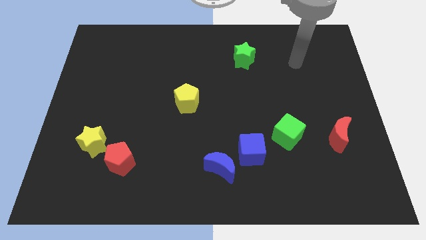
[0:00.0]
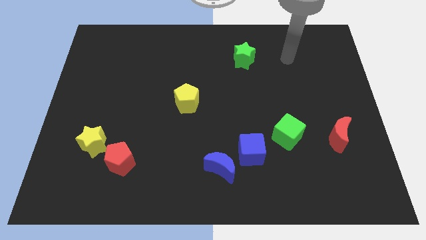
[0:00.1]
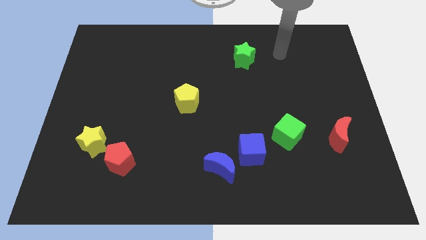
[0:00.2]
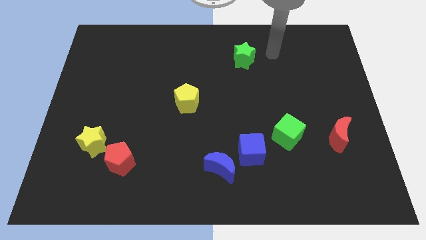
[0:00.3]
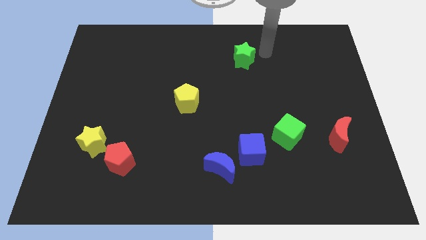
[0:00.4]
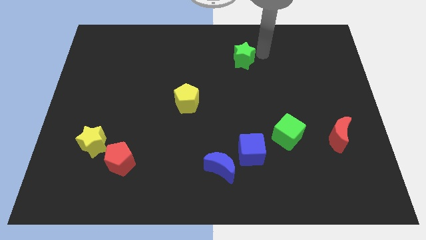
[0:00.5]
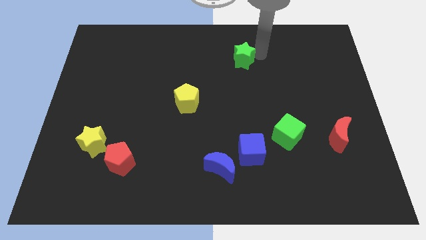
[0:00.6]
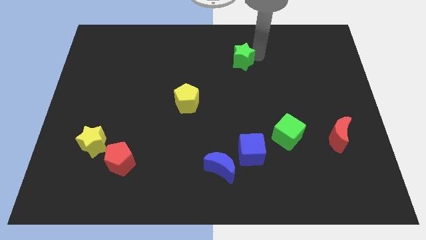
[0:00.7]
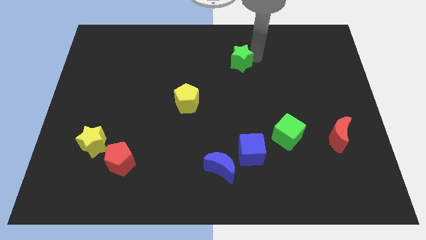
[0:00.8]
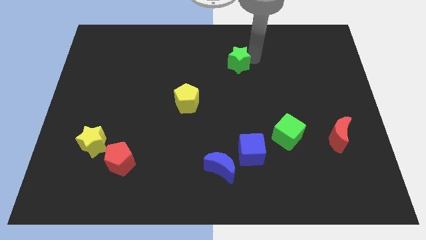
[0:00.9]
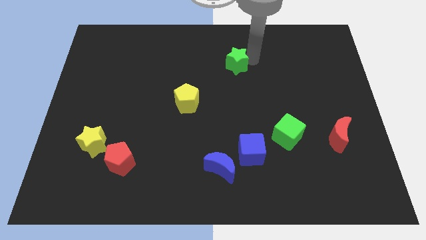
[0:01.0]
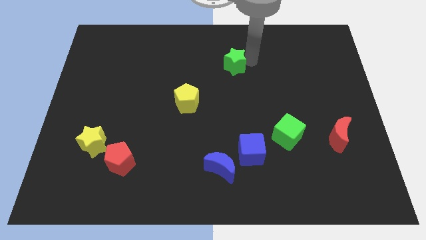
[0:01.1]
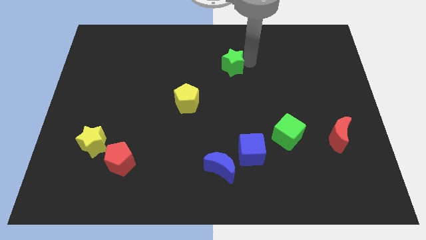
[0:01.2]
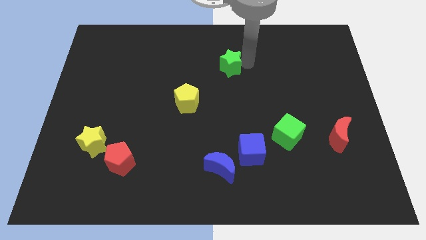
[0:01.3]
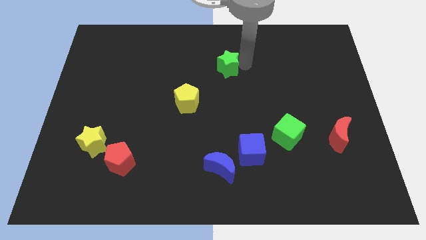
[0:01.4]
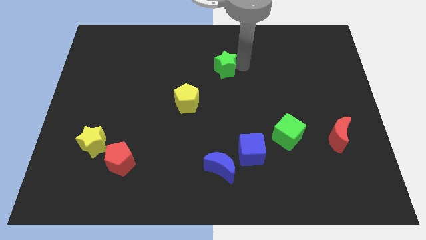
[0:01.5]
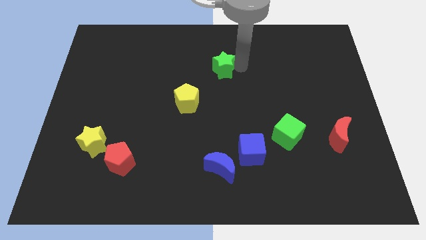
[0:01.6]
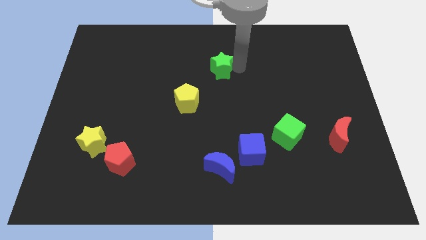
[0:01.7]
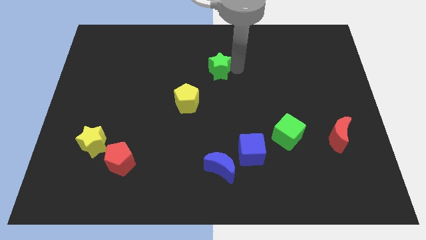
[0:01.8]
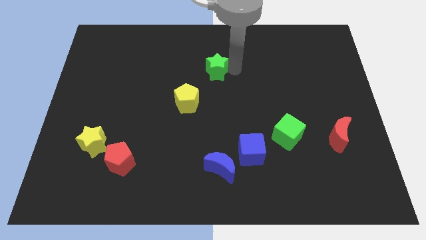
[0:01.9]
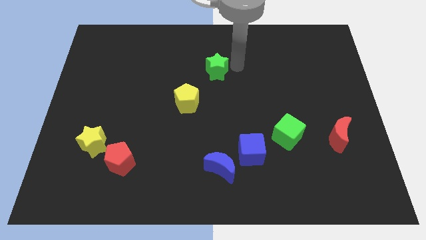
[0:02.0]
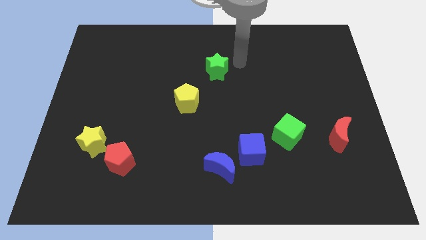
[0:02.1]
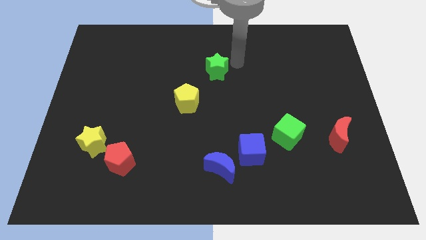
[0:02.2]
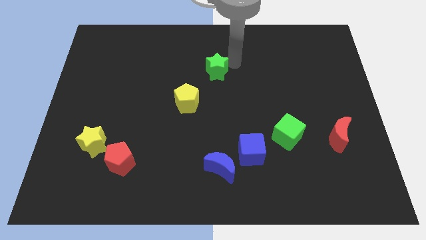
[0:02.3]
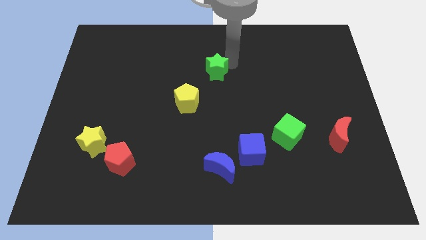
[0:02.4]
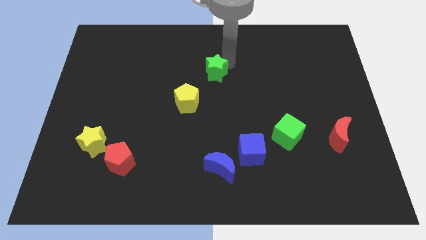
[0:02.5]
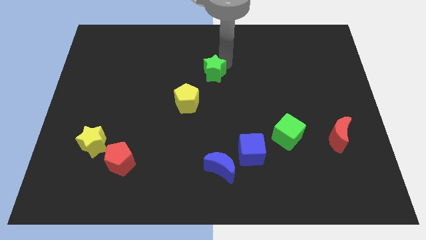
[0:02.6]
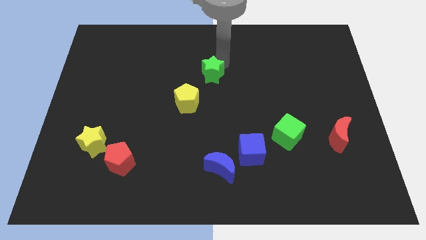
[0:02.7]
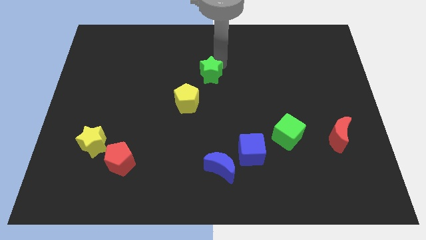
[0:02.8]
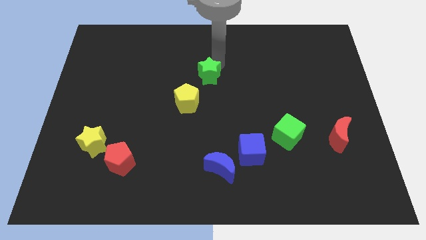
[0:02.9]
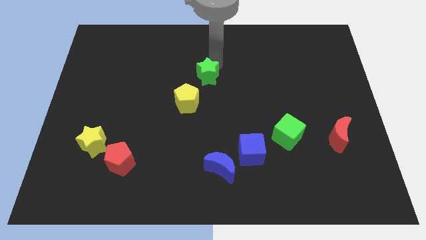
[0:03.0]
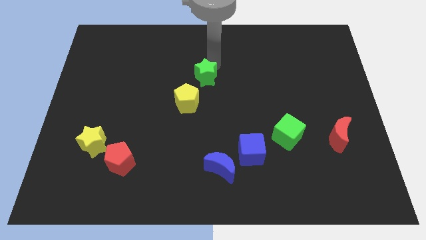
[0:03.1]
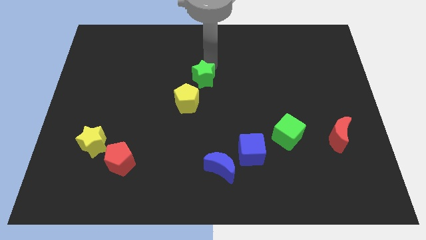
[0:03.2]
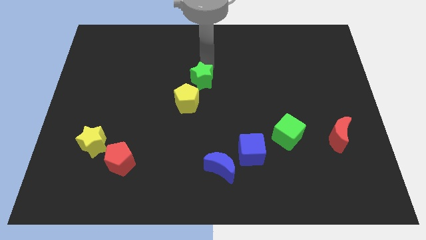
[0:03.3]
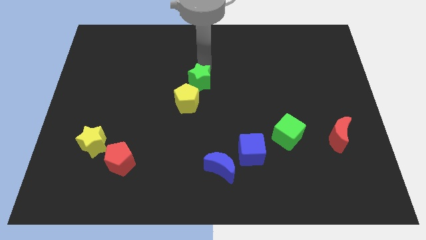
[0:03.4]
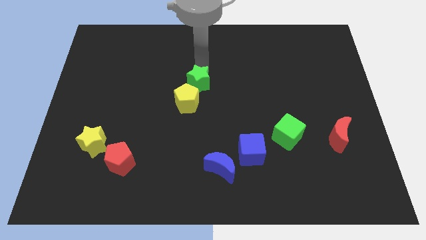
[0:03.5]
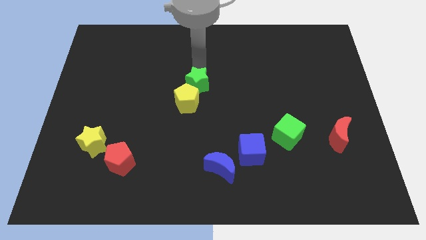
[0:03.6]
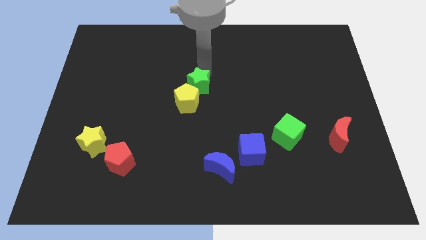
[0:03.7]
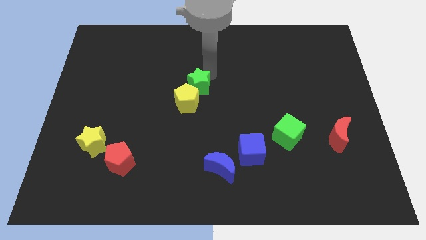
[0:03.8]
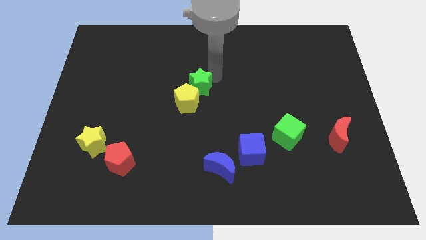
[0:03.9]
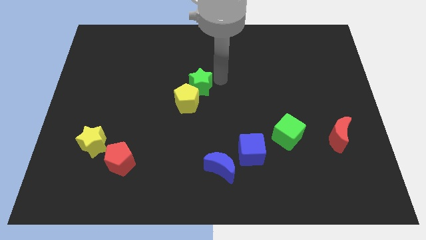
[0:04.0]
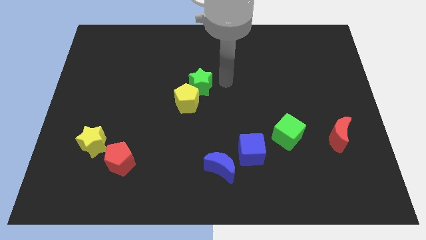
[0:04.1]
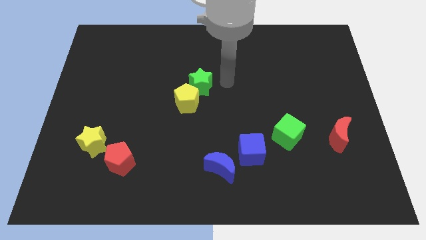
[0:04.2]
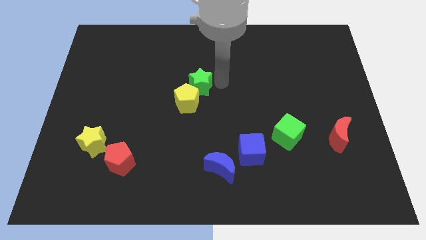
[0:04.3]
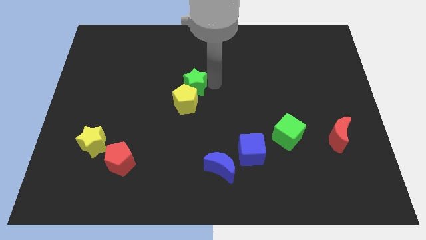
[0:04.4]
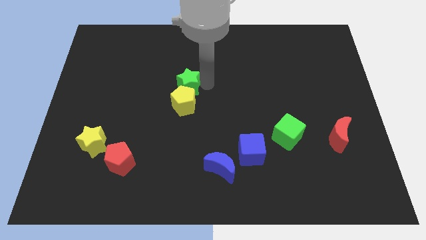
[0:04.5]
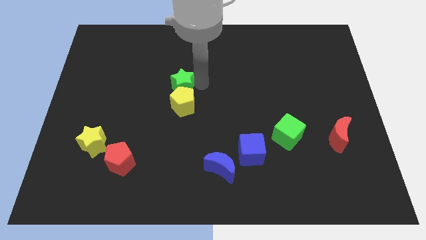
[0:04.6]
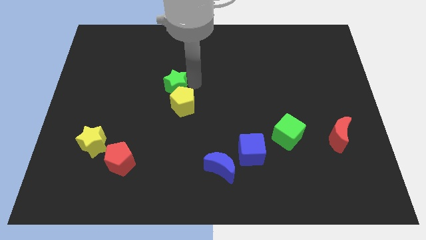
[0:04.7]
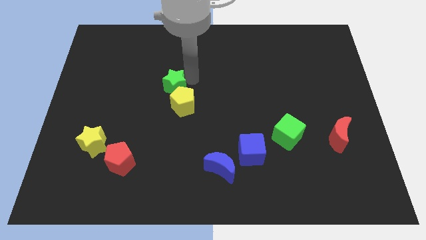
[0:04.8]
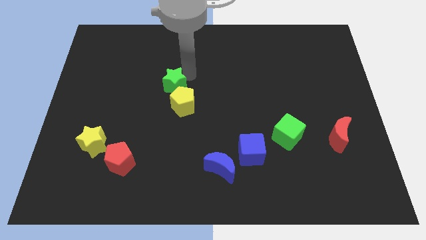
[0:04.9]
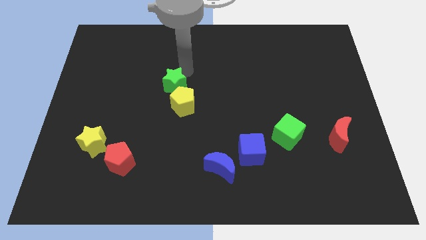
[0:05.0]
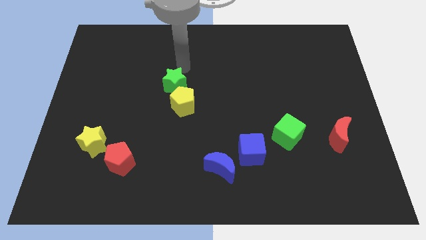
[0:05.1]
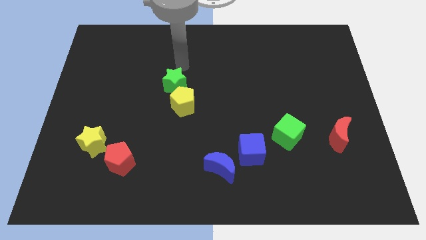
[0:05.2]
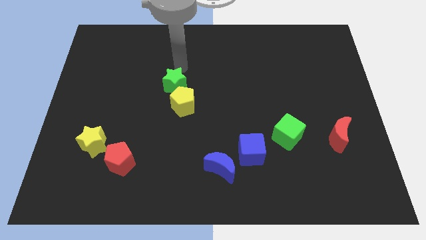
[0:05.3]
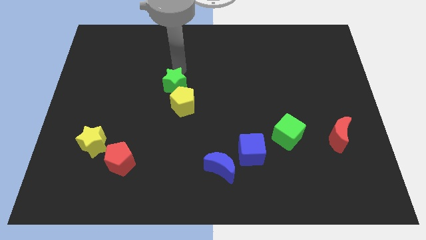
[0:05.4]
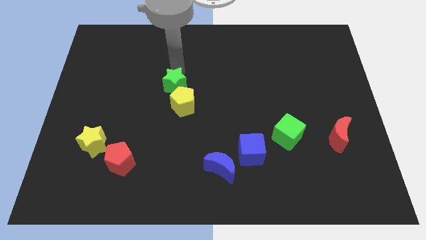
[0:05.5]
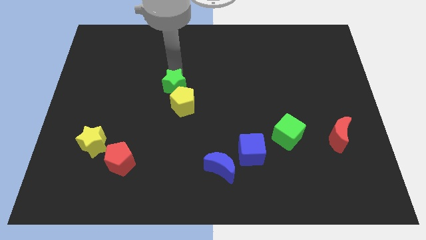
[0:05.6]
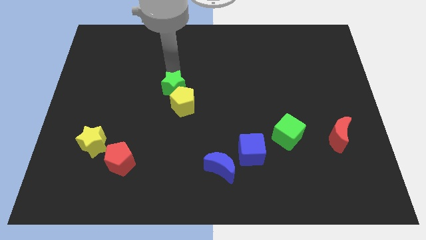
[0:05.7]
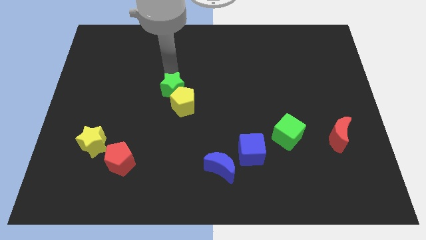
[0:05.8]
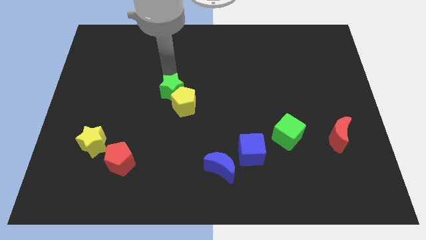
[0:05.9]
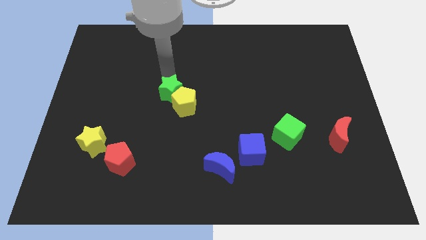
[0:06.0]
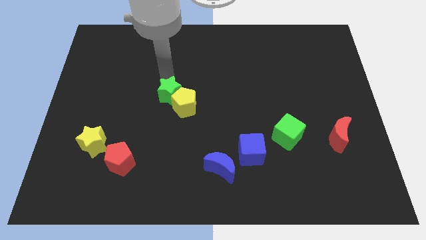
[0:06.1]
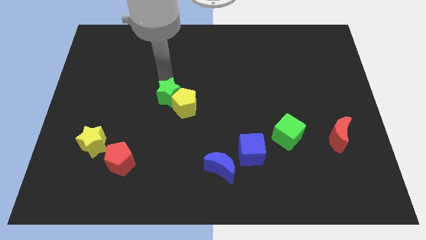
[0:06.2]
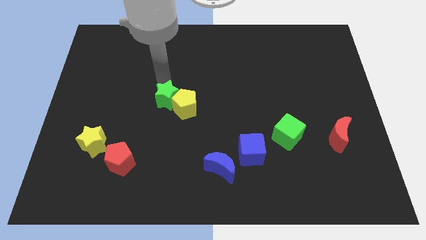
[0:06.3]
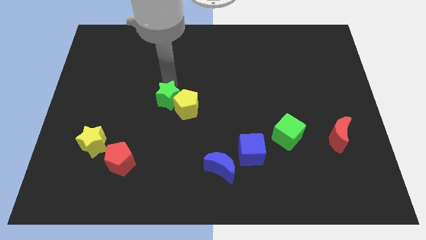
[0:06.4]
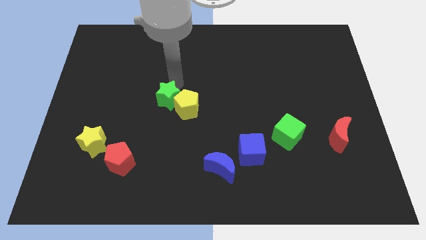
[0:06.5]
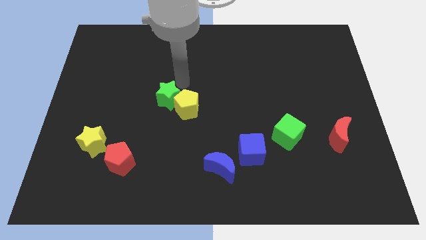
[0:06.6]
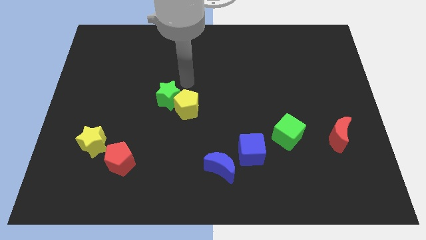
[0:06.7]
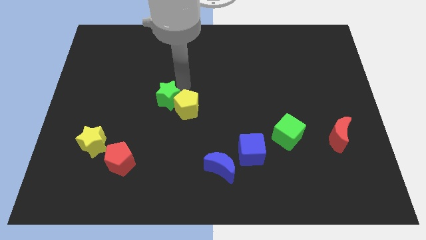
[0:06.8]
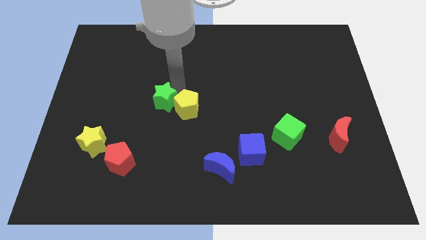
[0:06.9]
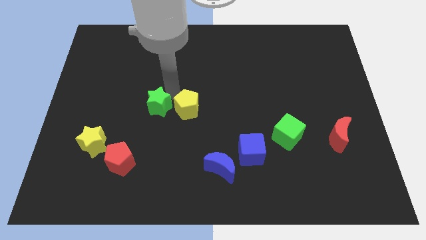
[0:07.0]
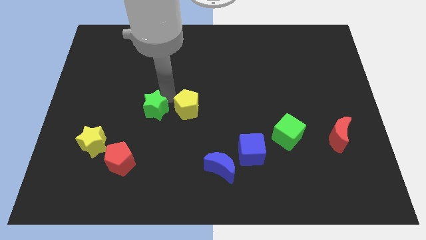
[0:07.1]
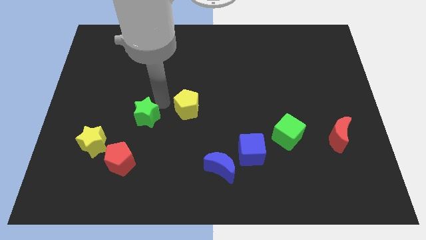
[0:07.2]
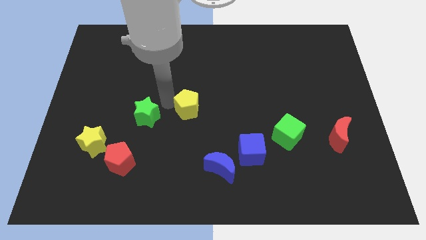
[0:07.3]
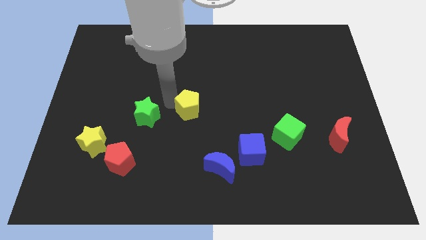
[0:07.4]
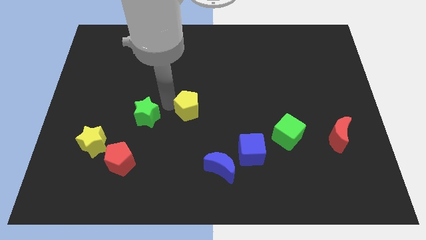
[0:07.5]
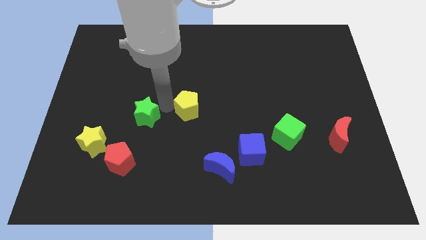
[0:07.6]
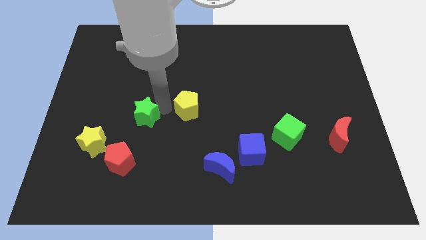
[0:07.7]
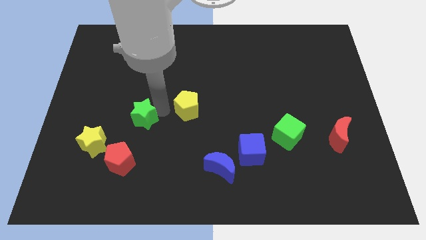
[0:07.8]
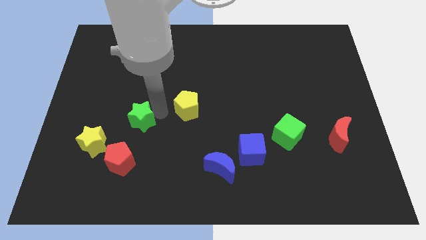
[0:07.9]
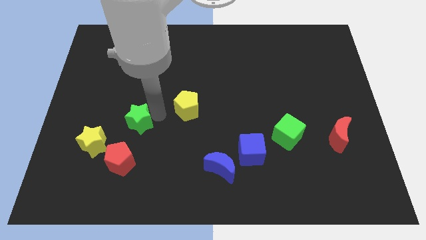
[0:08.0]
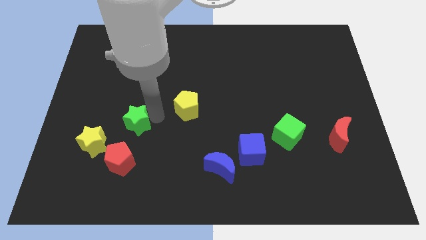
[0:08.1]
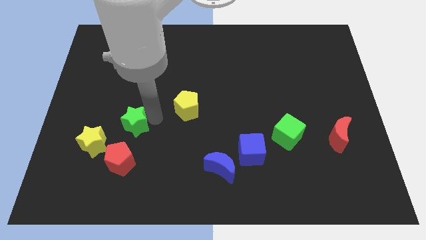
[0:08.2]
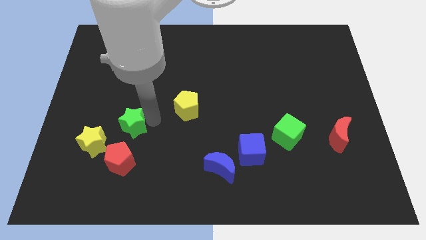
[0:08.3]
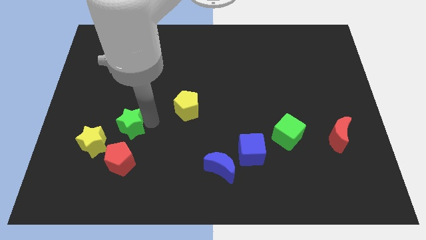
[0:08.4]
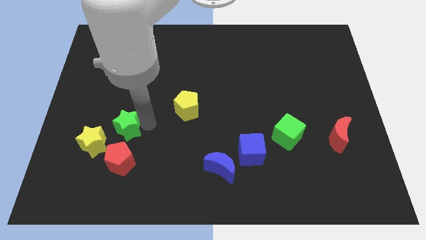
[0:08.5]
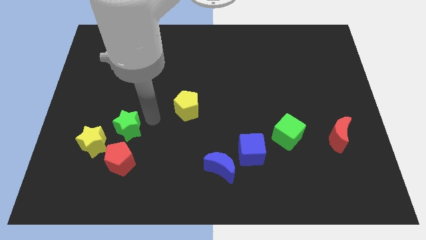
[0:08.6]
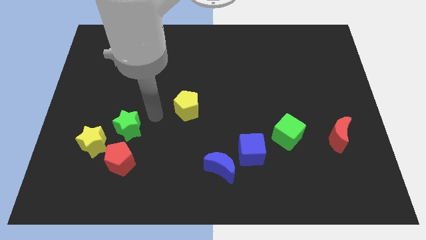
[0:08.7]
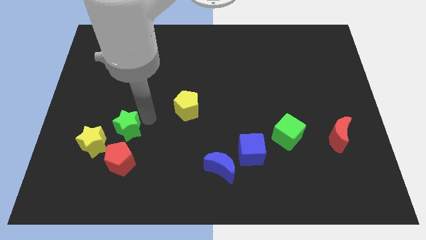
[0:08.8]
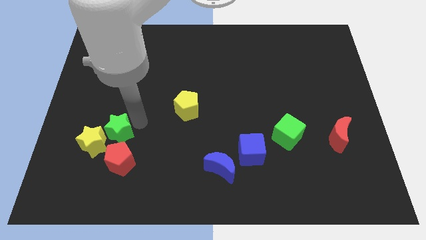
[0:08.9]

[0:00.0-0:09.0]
move the green star towards the yellow star
